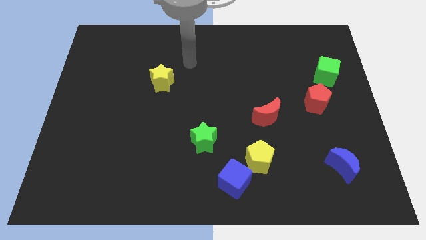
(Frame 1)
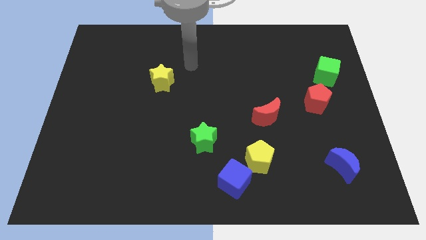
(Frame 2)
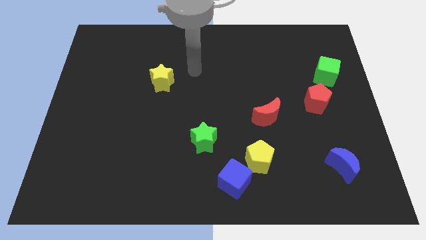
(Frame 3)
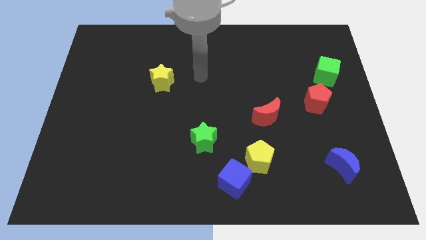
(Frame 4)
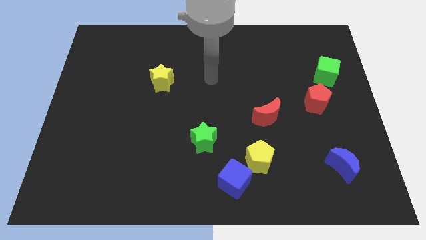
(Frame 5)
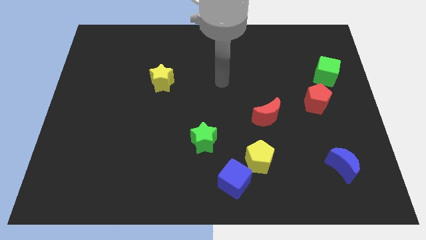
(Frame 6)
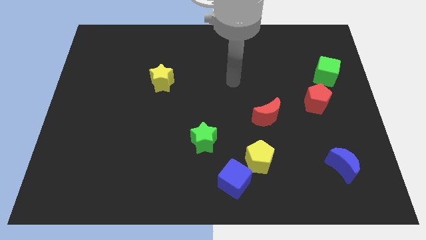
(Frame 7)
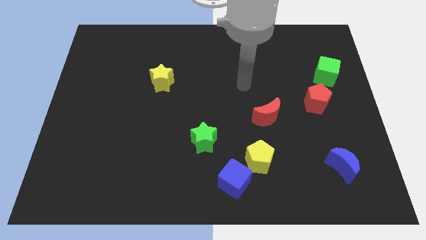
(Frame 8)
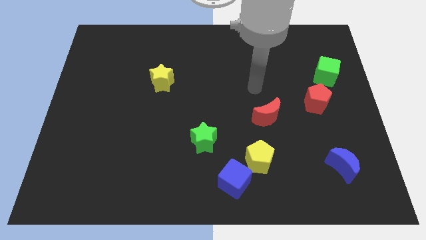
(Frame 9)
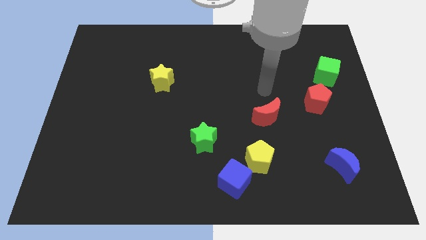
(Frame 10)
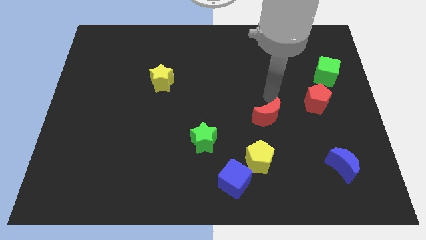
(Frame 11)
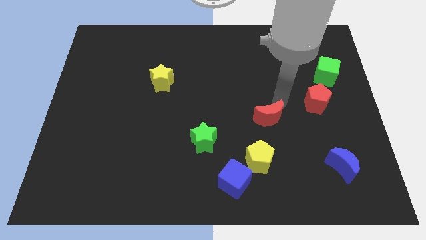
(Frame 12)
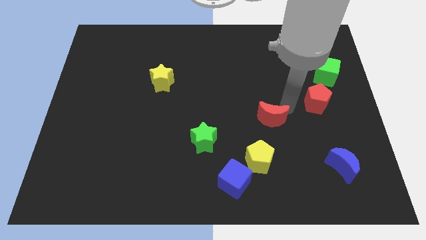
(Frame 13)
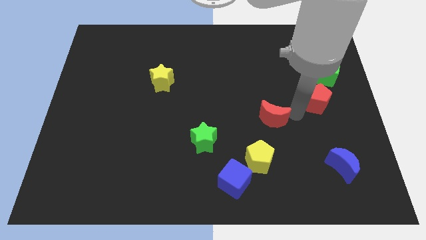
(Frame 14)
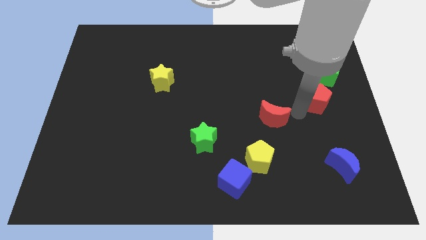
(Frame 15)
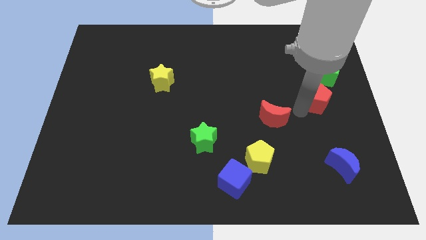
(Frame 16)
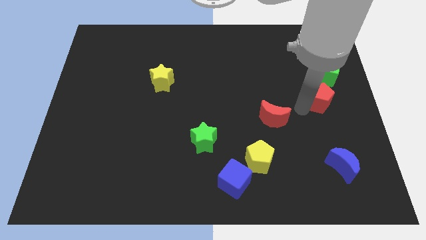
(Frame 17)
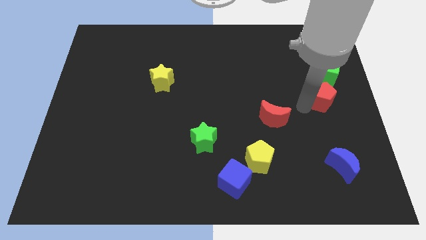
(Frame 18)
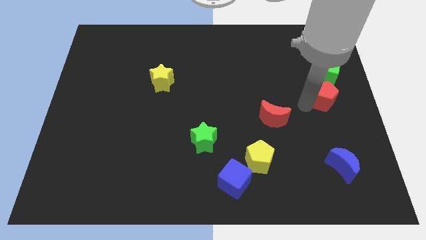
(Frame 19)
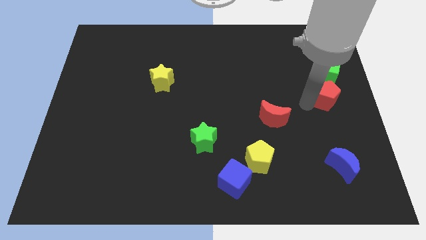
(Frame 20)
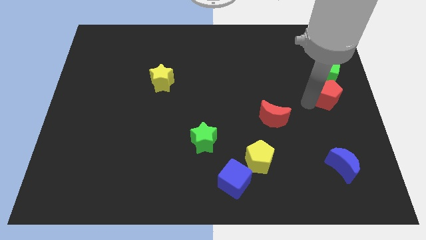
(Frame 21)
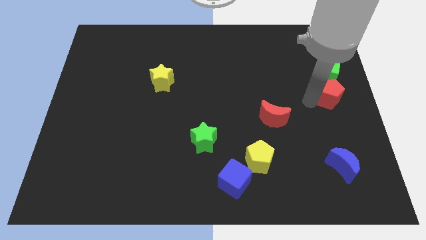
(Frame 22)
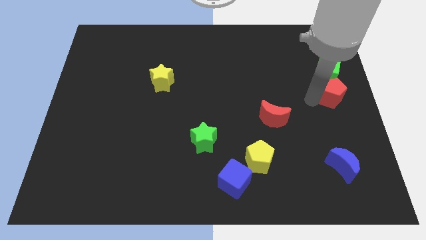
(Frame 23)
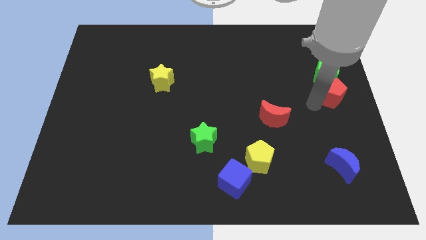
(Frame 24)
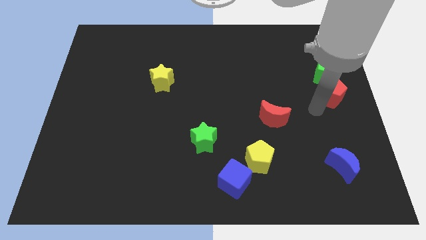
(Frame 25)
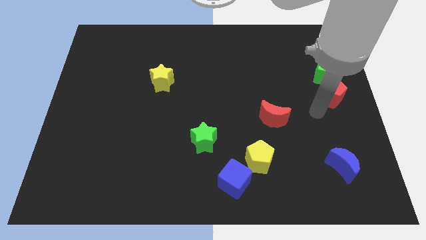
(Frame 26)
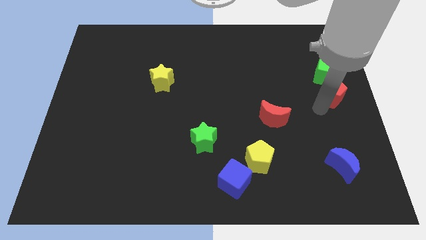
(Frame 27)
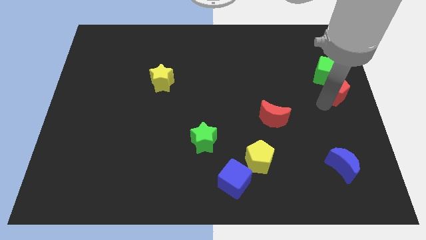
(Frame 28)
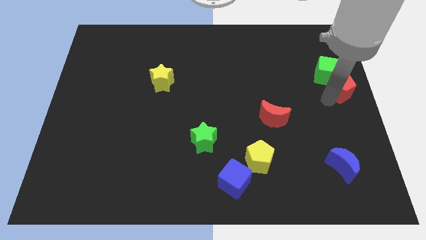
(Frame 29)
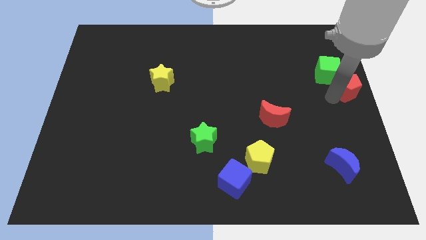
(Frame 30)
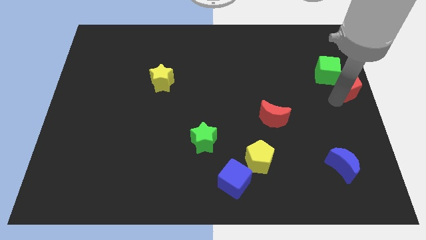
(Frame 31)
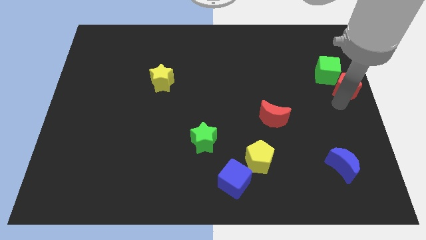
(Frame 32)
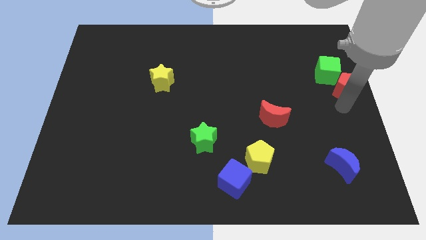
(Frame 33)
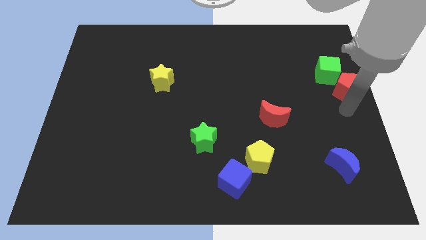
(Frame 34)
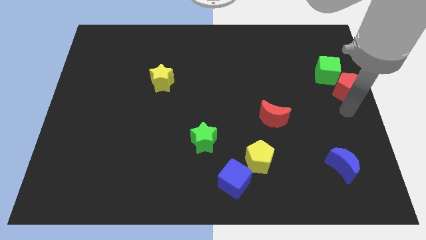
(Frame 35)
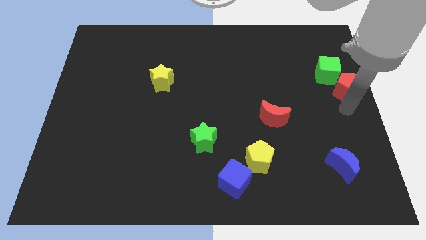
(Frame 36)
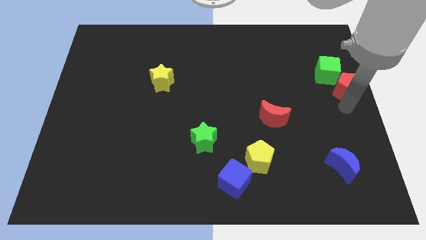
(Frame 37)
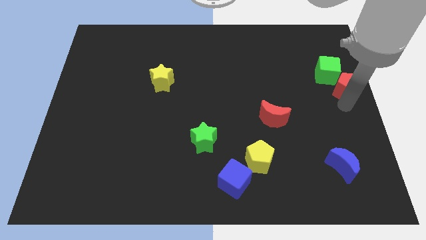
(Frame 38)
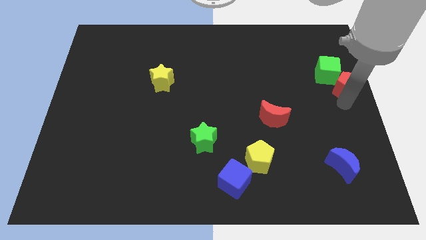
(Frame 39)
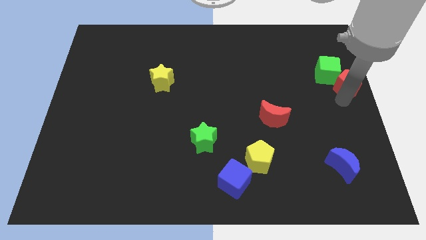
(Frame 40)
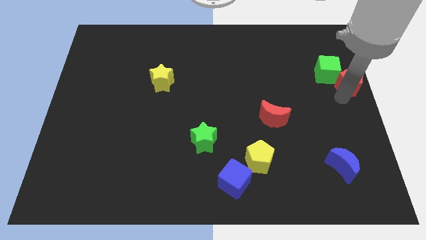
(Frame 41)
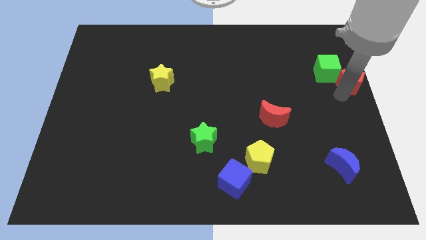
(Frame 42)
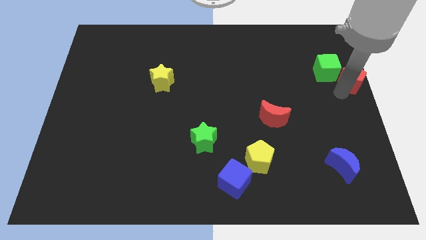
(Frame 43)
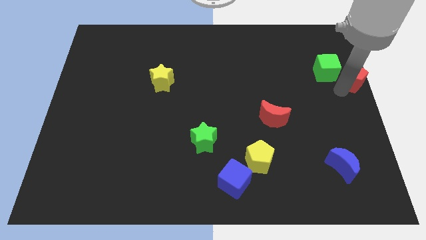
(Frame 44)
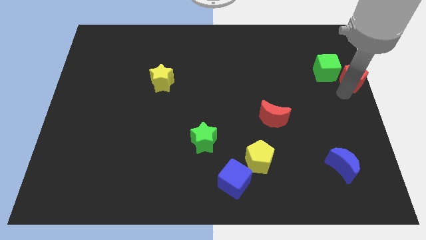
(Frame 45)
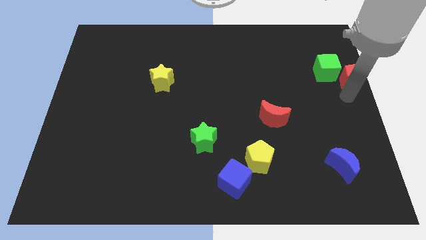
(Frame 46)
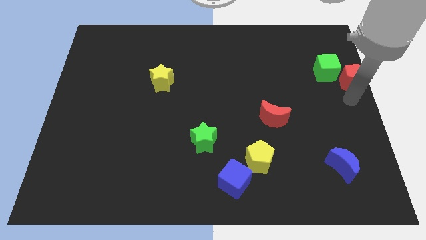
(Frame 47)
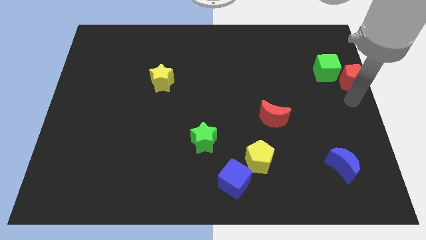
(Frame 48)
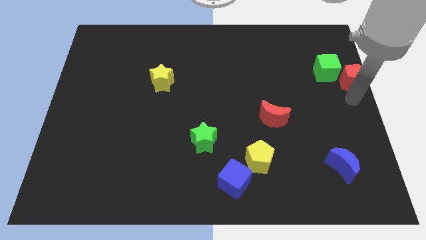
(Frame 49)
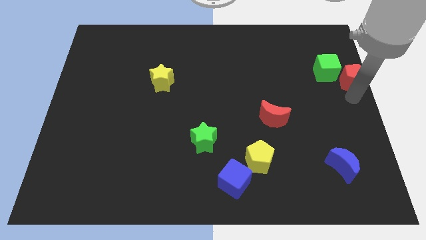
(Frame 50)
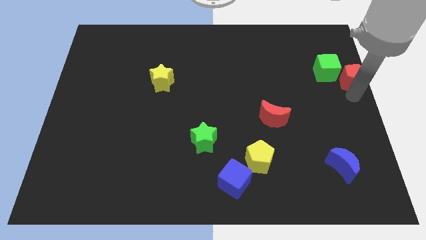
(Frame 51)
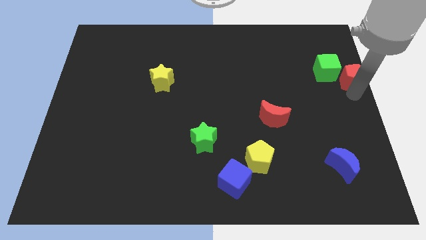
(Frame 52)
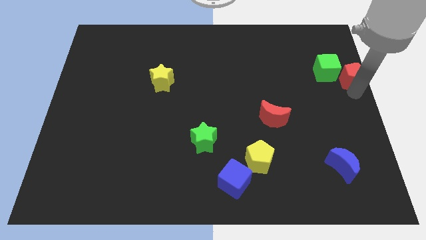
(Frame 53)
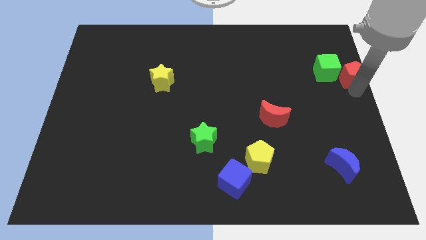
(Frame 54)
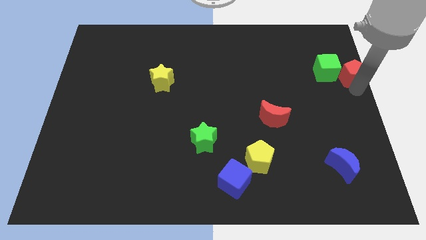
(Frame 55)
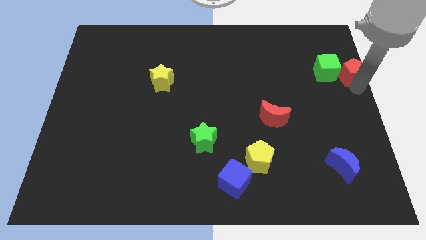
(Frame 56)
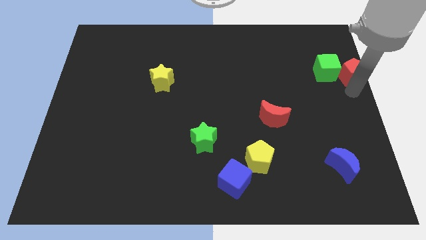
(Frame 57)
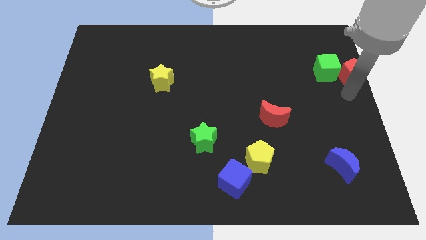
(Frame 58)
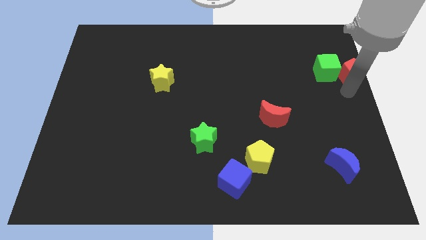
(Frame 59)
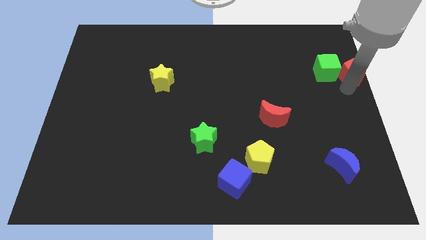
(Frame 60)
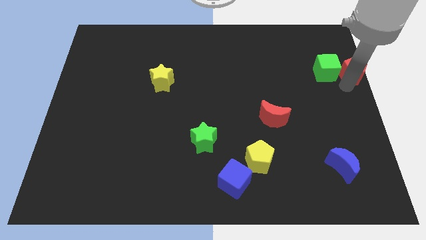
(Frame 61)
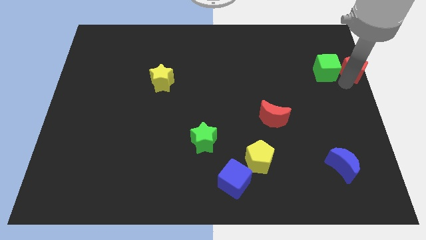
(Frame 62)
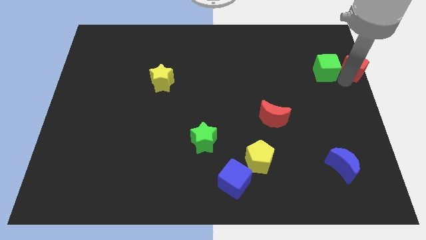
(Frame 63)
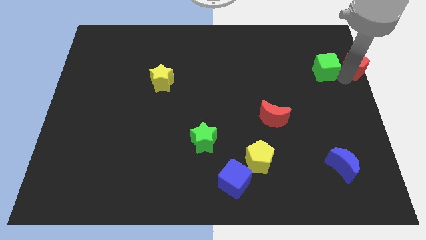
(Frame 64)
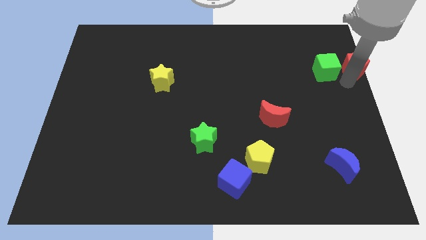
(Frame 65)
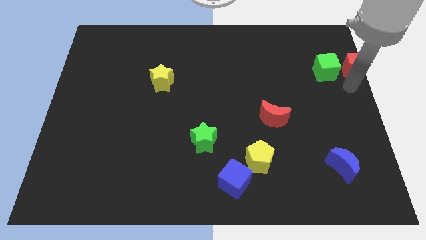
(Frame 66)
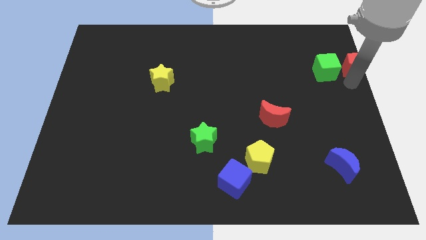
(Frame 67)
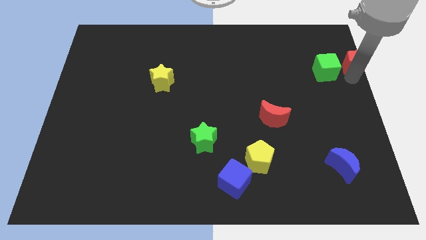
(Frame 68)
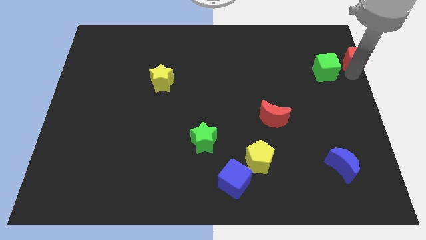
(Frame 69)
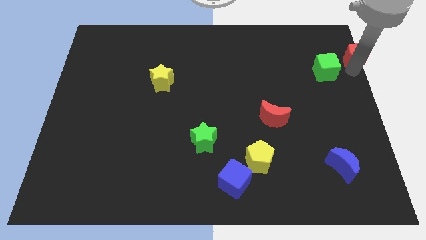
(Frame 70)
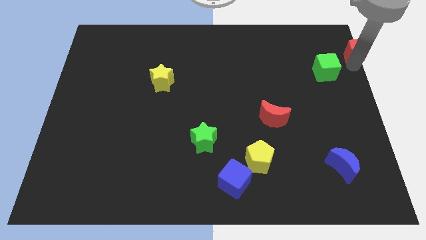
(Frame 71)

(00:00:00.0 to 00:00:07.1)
push the red pentagon to the upper right corner
